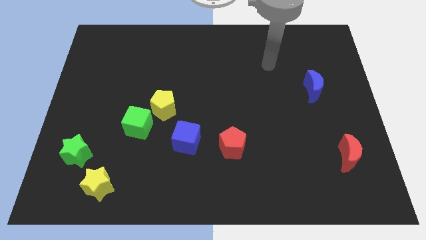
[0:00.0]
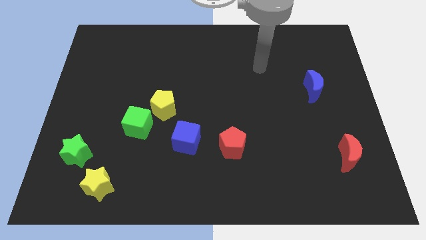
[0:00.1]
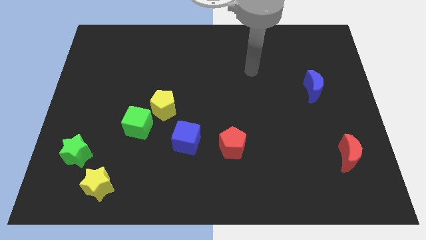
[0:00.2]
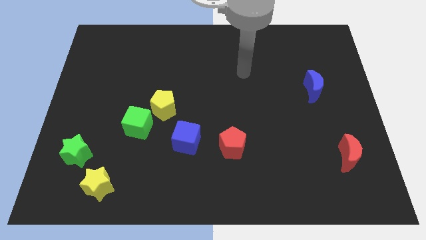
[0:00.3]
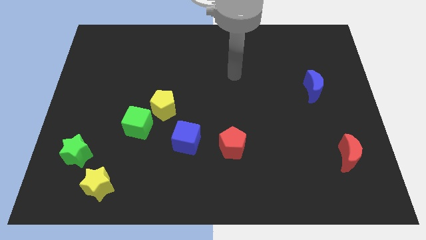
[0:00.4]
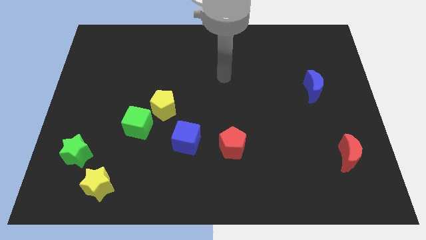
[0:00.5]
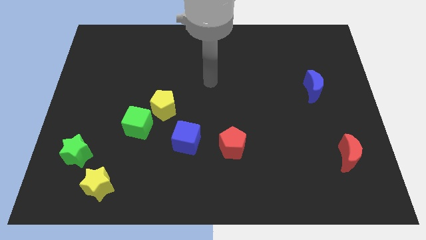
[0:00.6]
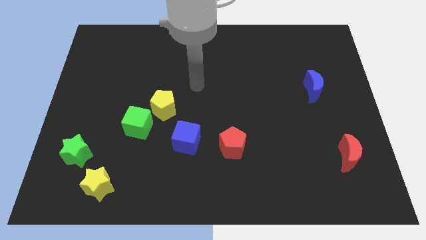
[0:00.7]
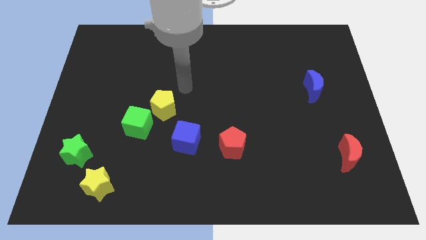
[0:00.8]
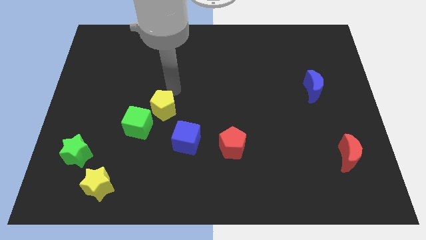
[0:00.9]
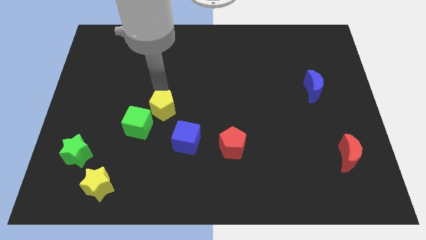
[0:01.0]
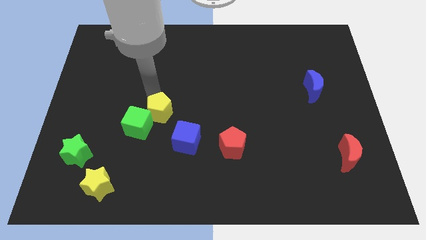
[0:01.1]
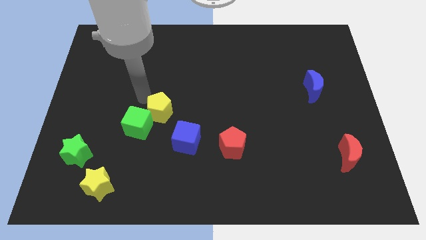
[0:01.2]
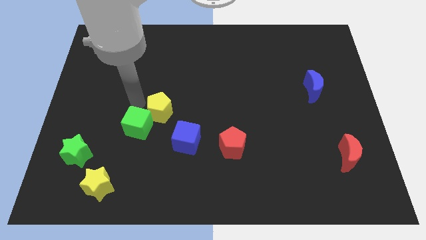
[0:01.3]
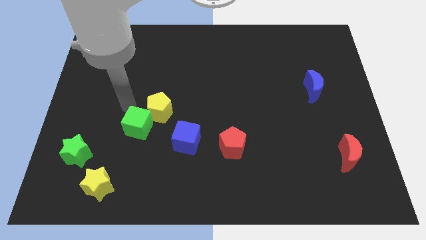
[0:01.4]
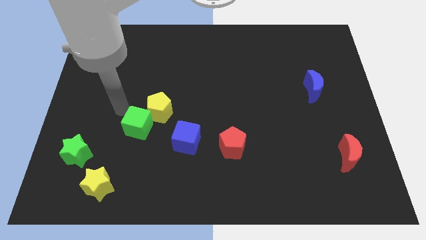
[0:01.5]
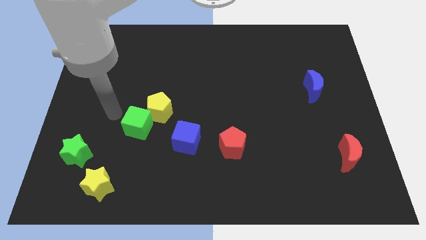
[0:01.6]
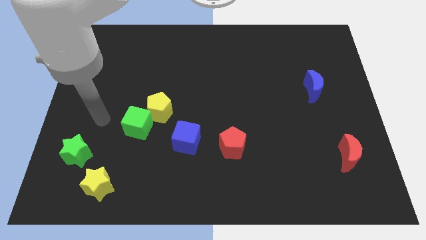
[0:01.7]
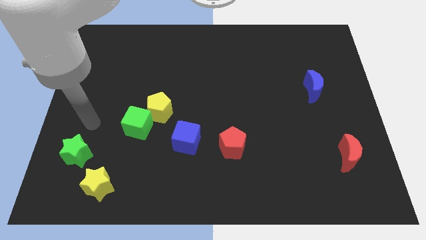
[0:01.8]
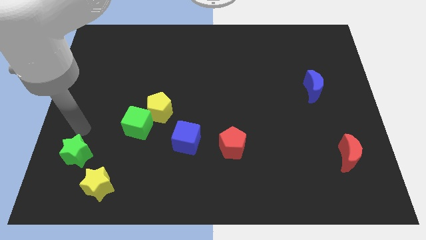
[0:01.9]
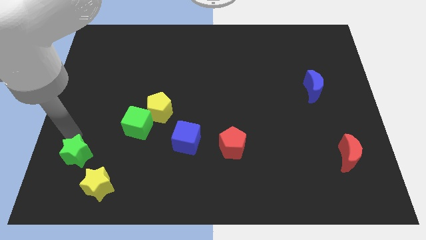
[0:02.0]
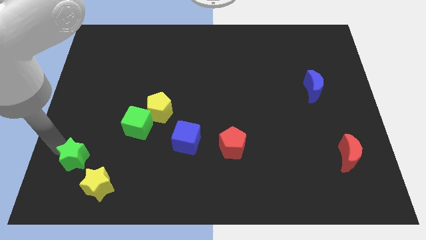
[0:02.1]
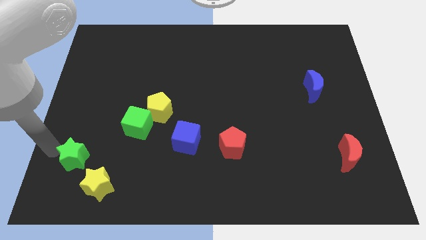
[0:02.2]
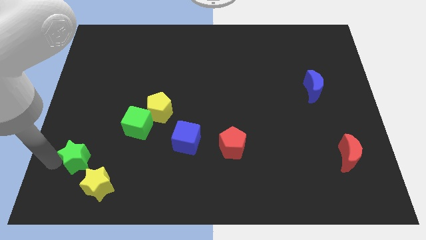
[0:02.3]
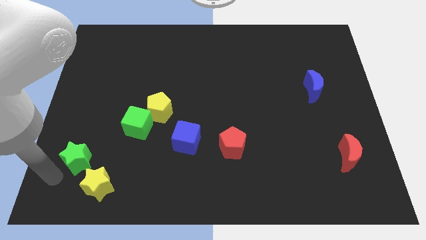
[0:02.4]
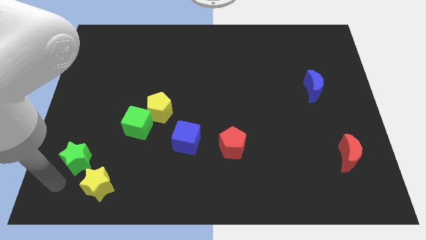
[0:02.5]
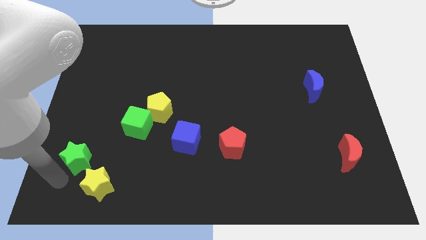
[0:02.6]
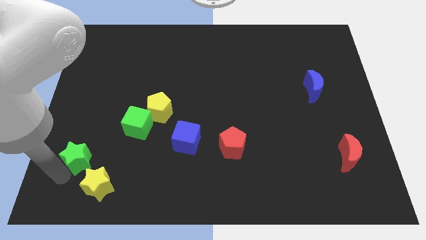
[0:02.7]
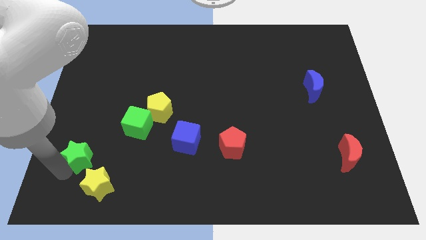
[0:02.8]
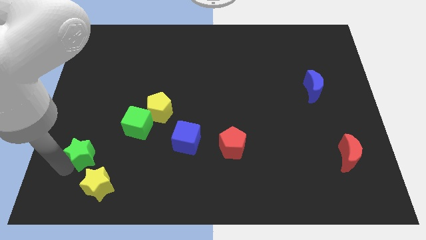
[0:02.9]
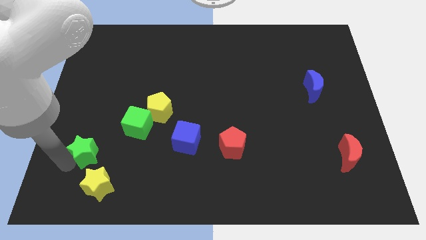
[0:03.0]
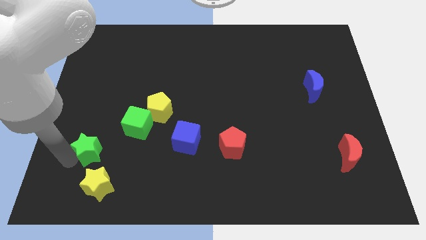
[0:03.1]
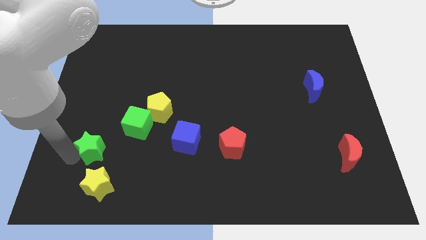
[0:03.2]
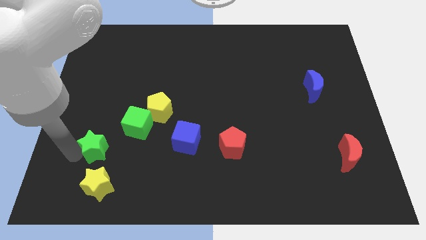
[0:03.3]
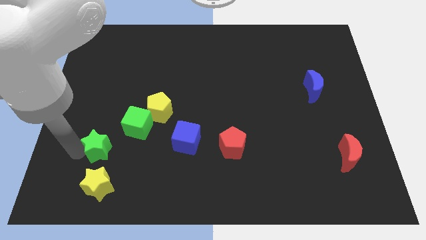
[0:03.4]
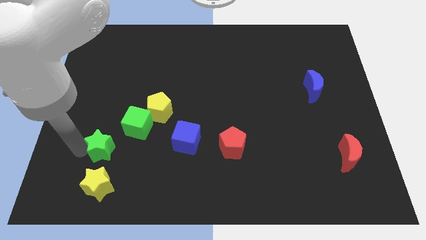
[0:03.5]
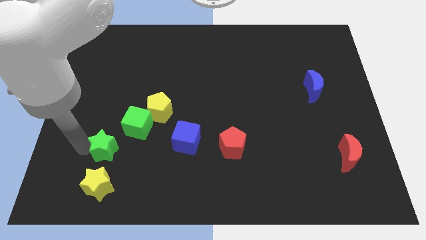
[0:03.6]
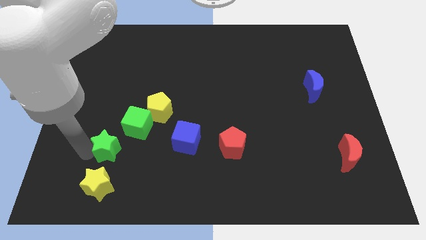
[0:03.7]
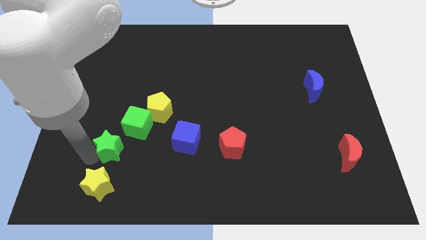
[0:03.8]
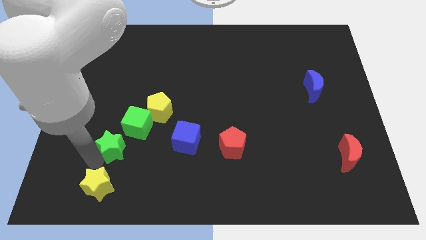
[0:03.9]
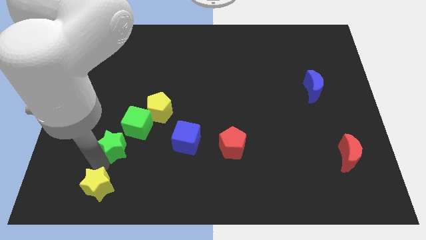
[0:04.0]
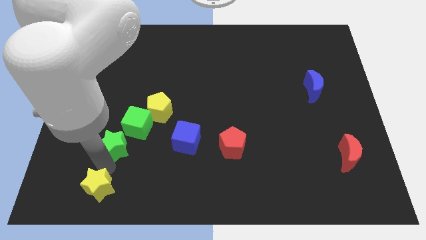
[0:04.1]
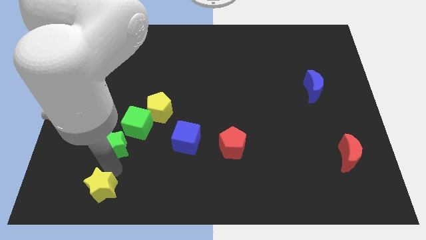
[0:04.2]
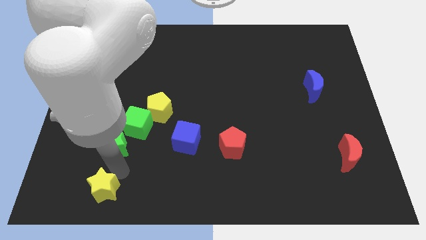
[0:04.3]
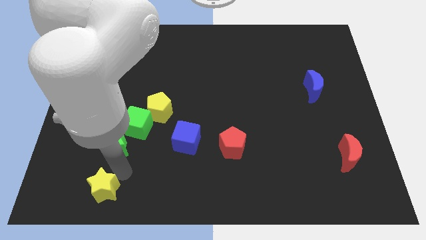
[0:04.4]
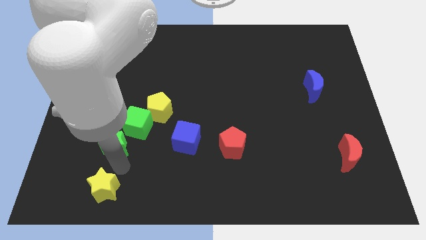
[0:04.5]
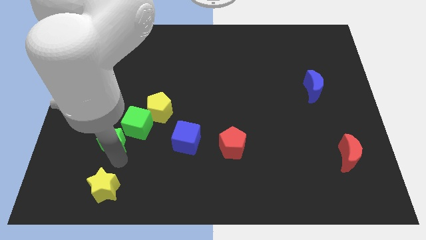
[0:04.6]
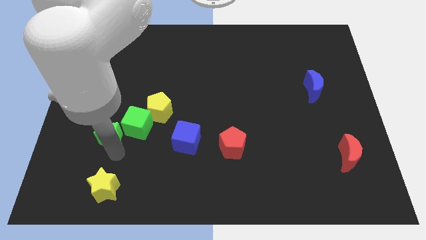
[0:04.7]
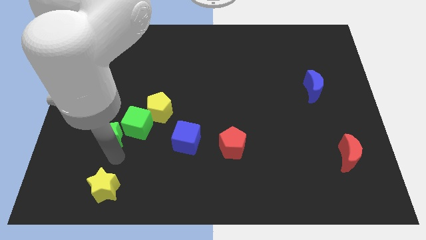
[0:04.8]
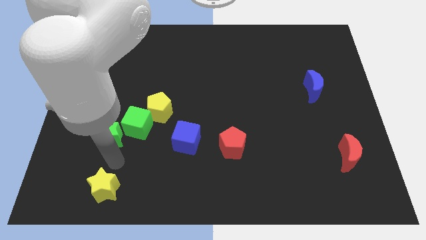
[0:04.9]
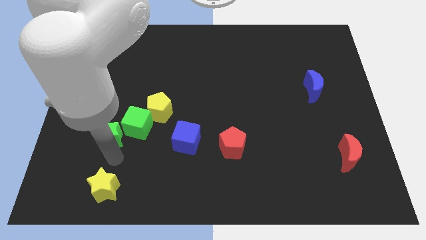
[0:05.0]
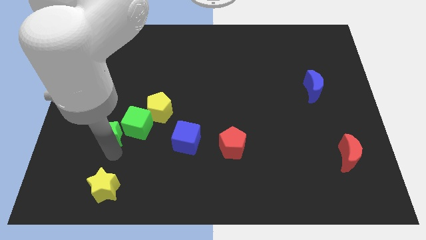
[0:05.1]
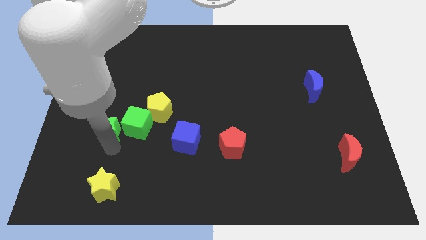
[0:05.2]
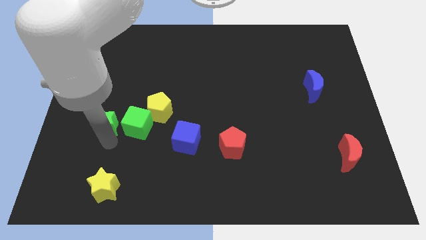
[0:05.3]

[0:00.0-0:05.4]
push the green star to the left of the yellow pentagon

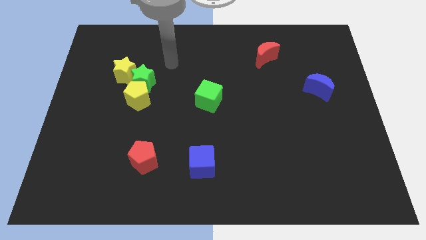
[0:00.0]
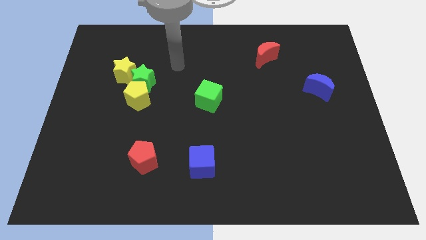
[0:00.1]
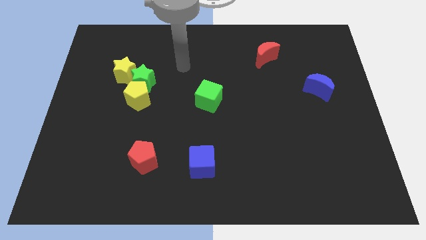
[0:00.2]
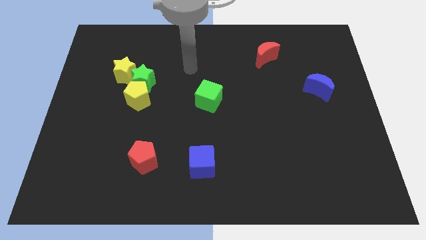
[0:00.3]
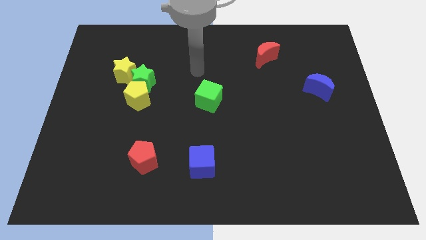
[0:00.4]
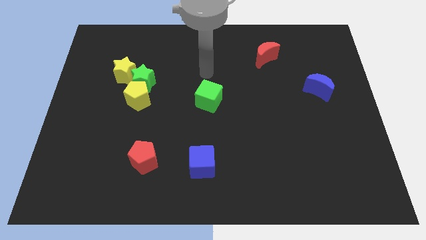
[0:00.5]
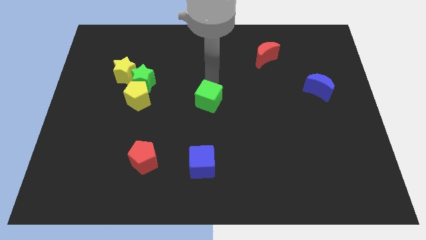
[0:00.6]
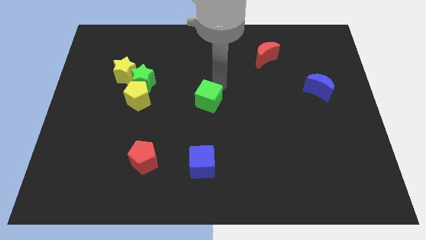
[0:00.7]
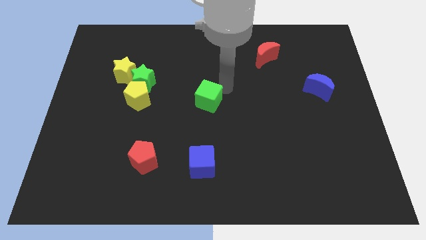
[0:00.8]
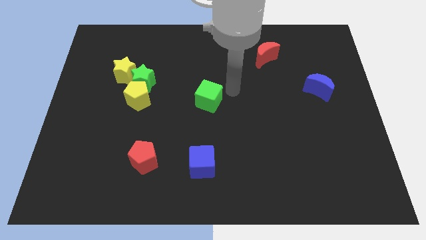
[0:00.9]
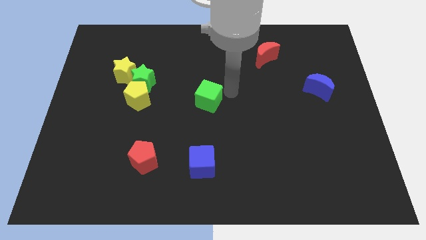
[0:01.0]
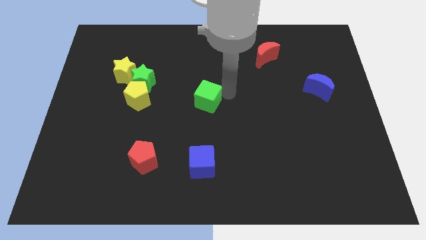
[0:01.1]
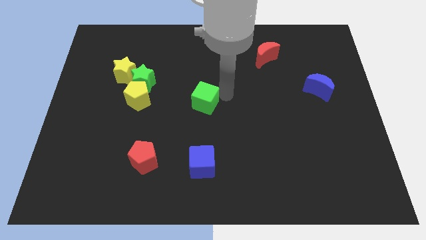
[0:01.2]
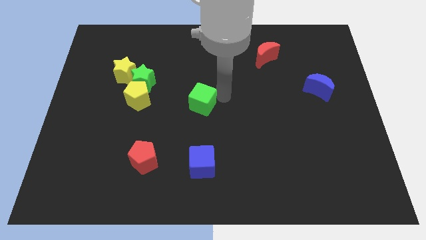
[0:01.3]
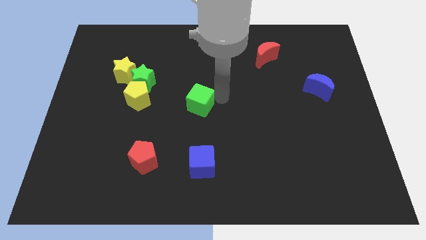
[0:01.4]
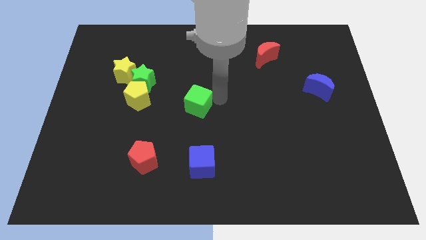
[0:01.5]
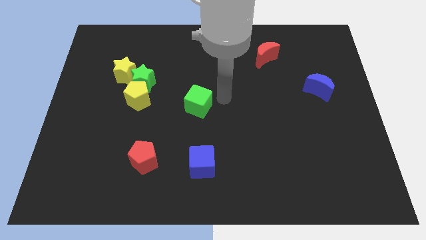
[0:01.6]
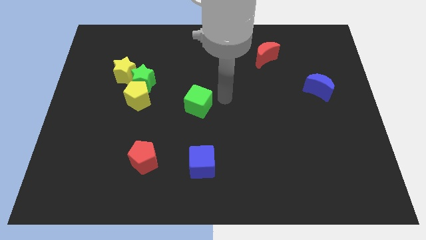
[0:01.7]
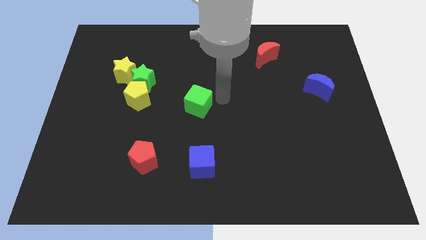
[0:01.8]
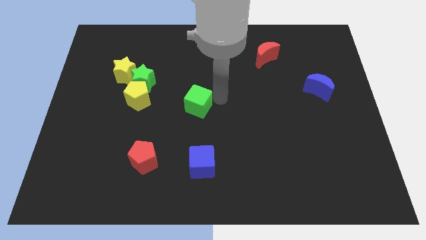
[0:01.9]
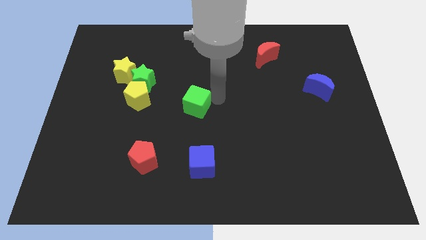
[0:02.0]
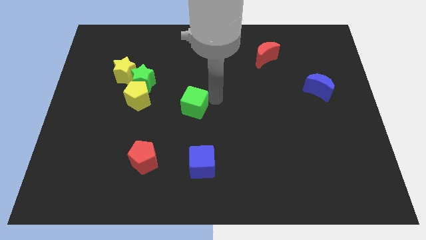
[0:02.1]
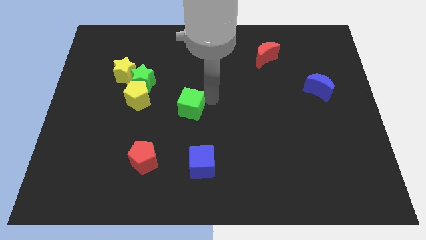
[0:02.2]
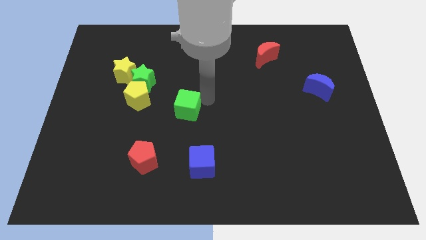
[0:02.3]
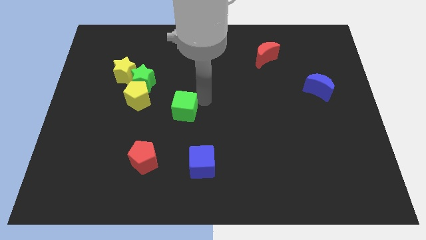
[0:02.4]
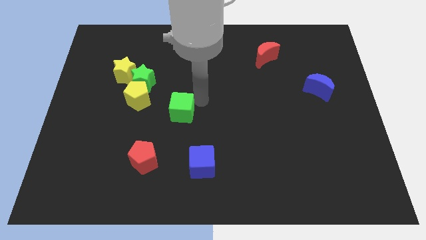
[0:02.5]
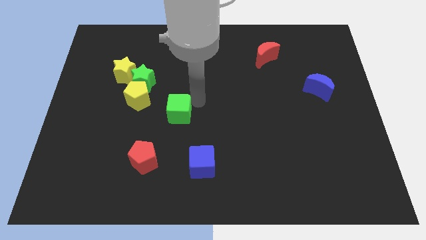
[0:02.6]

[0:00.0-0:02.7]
move the green cube to the bottom right side of the yellow pentagon
